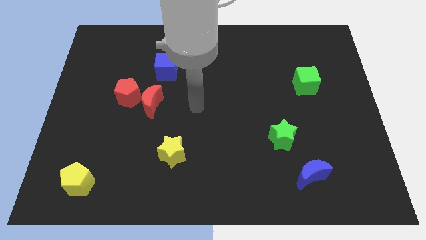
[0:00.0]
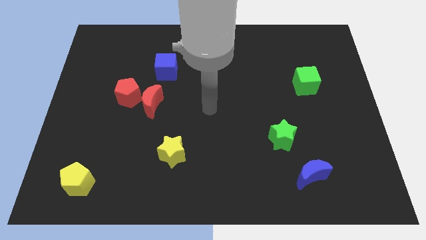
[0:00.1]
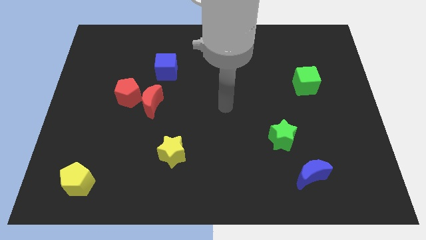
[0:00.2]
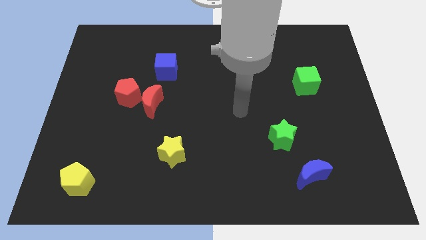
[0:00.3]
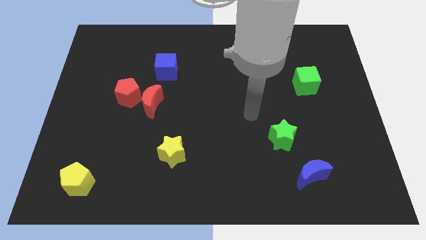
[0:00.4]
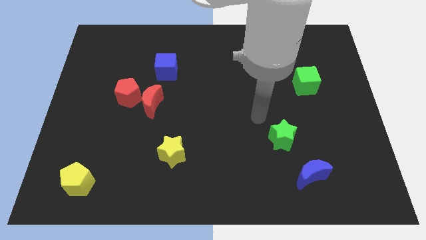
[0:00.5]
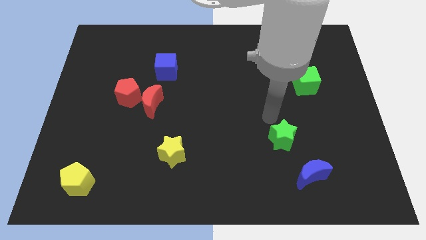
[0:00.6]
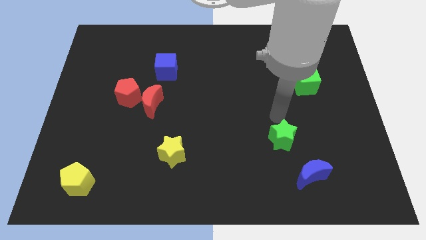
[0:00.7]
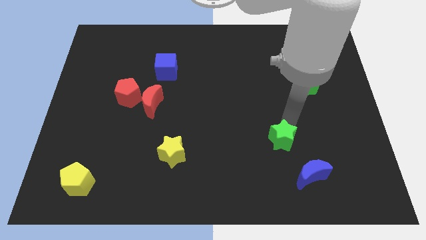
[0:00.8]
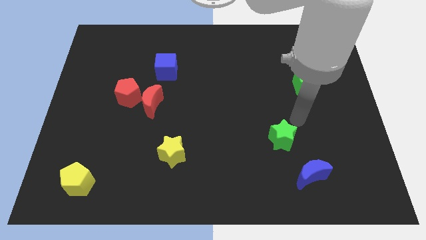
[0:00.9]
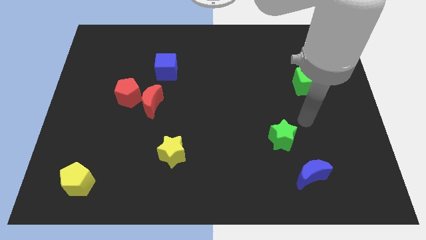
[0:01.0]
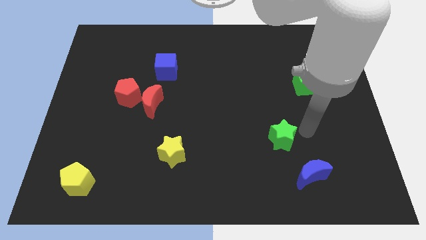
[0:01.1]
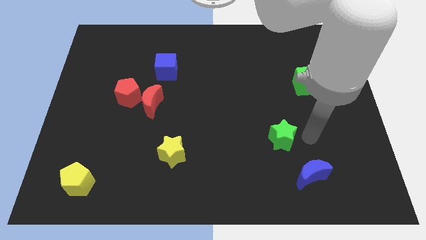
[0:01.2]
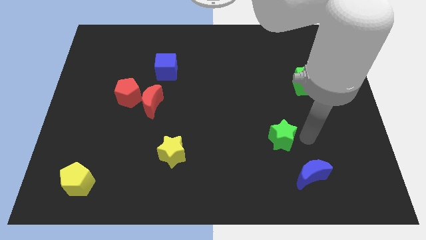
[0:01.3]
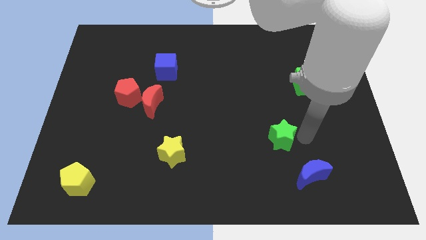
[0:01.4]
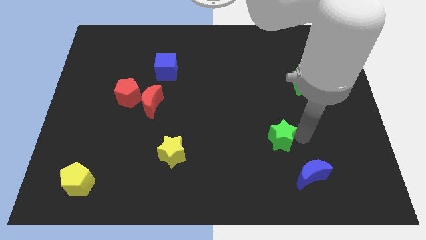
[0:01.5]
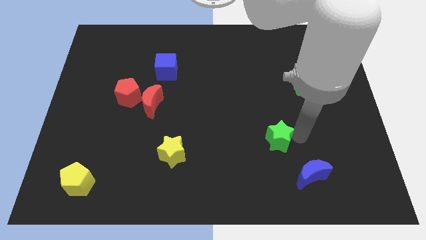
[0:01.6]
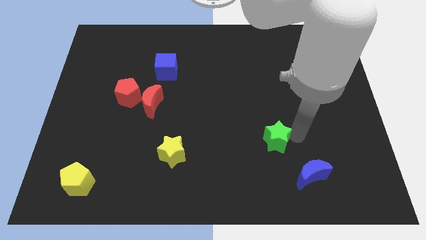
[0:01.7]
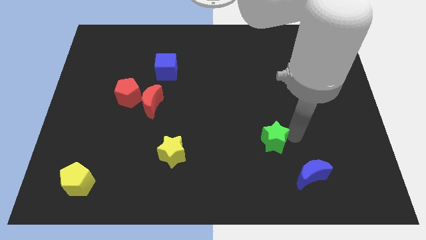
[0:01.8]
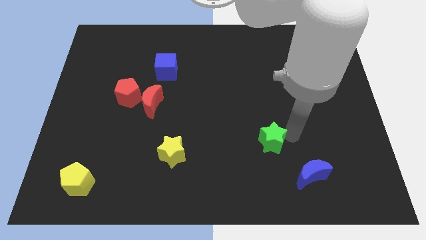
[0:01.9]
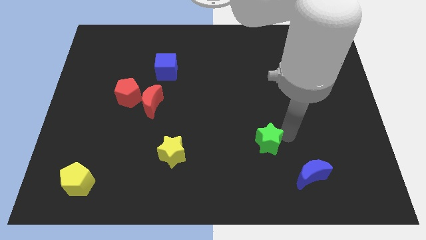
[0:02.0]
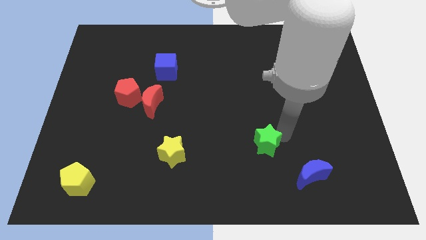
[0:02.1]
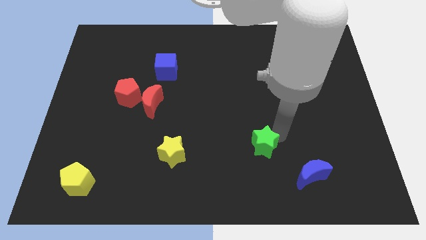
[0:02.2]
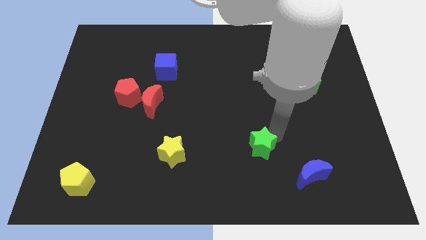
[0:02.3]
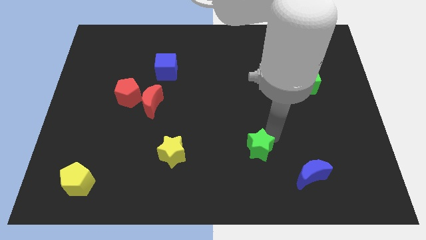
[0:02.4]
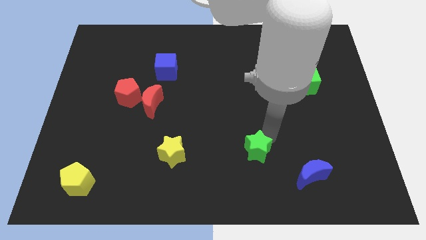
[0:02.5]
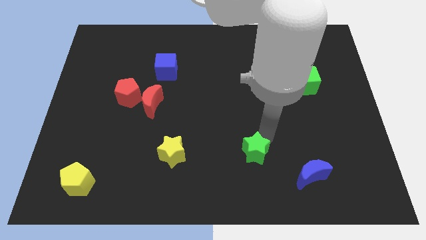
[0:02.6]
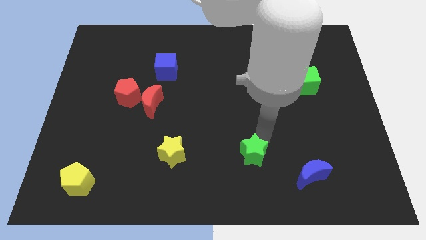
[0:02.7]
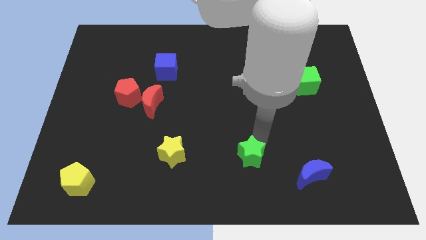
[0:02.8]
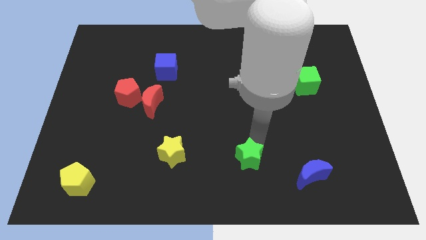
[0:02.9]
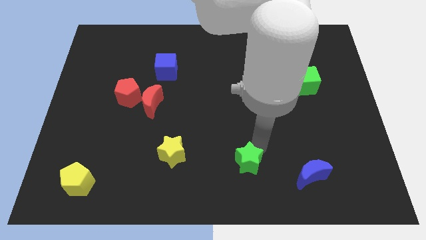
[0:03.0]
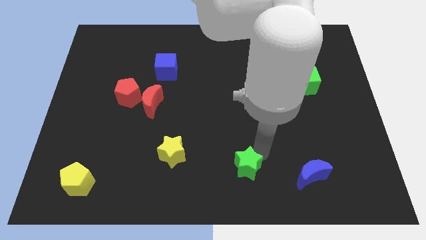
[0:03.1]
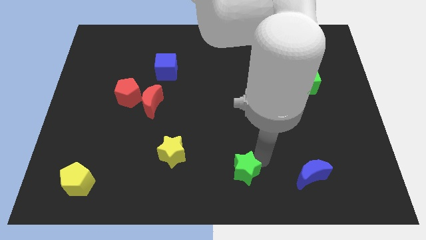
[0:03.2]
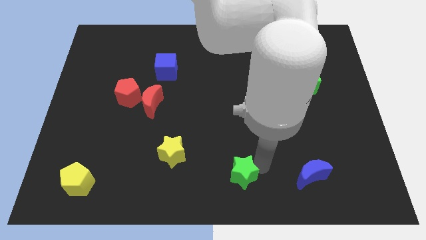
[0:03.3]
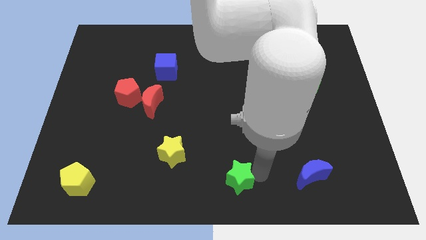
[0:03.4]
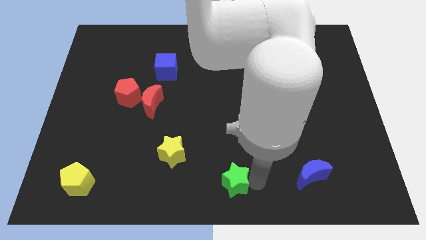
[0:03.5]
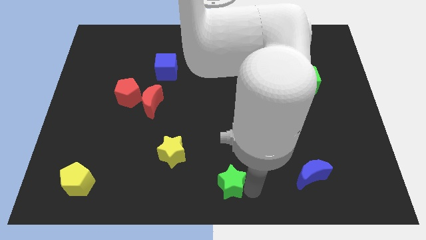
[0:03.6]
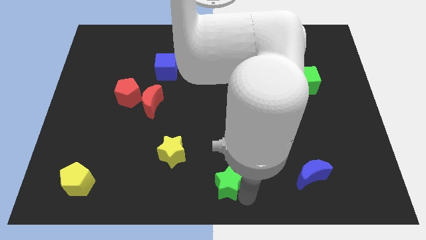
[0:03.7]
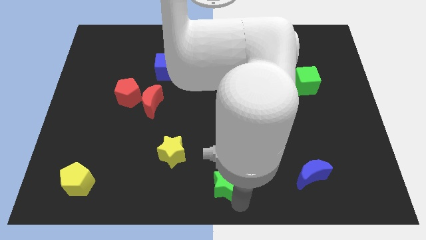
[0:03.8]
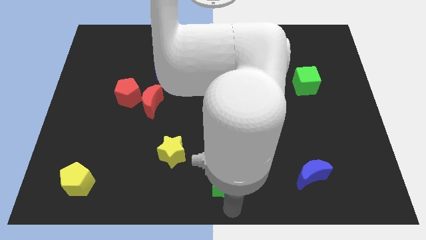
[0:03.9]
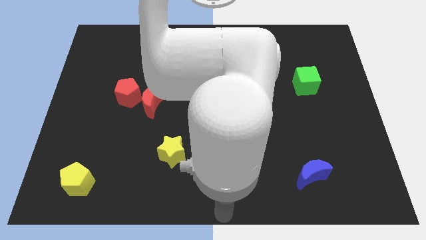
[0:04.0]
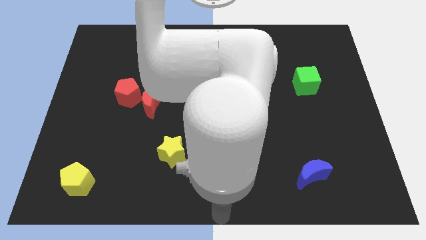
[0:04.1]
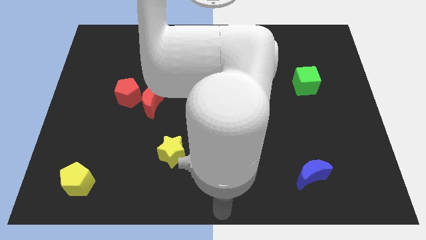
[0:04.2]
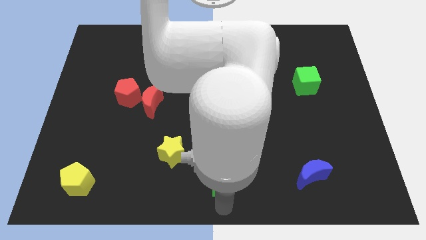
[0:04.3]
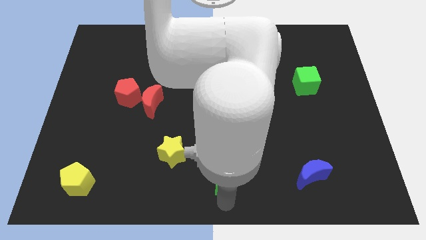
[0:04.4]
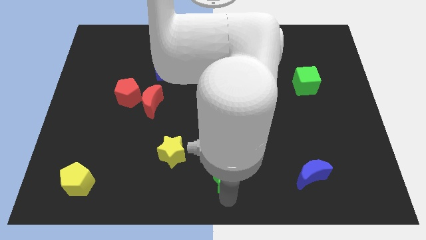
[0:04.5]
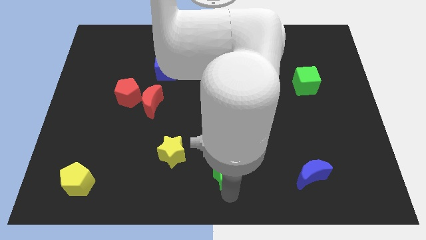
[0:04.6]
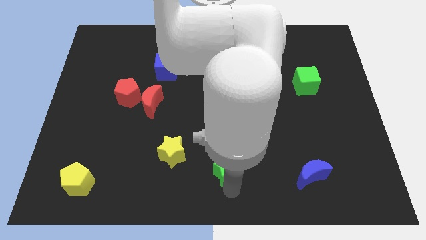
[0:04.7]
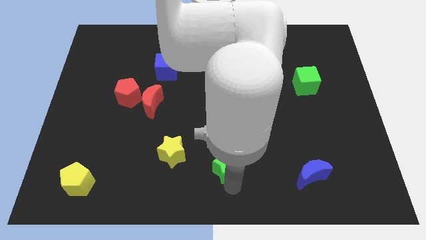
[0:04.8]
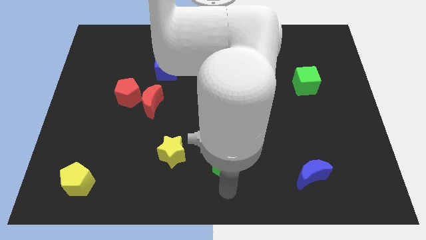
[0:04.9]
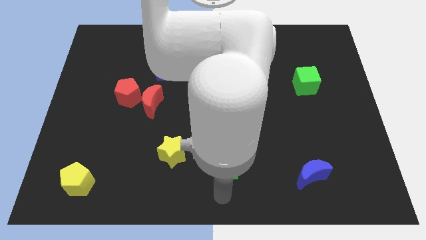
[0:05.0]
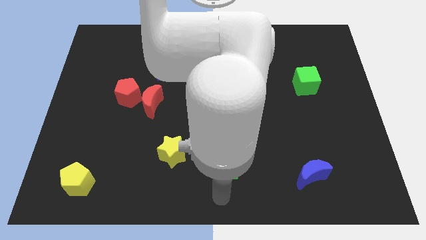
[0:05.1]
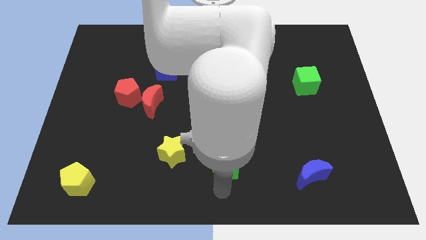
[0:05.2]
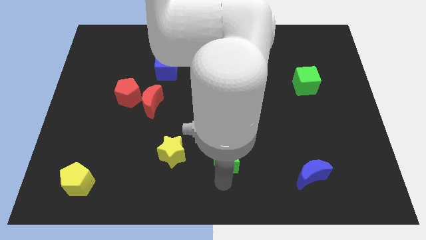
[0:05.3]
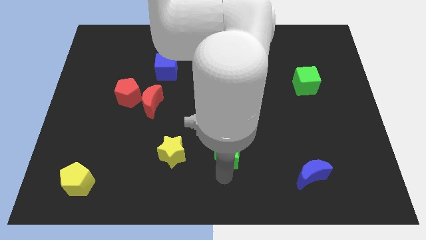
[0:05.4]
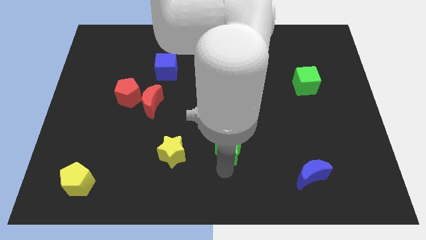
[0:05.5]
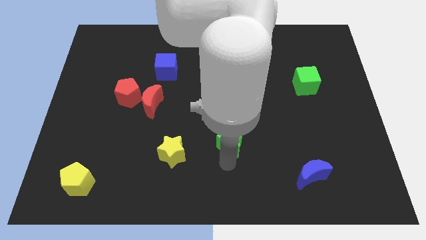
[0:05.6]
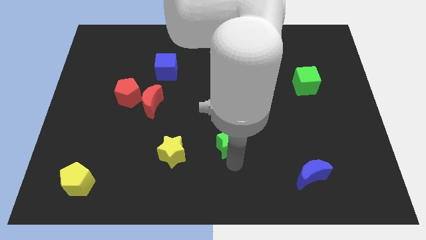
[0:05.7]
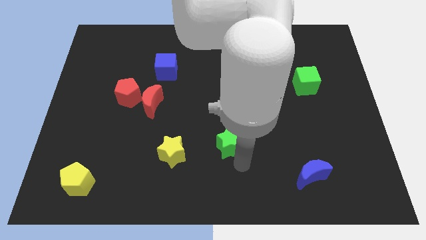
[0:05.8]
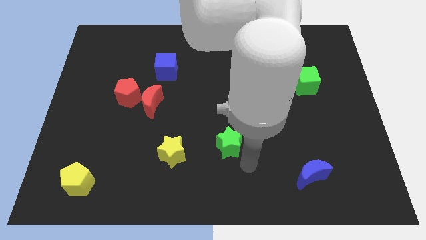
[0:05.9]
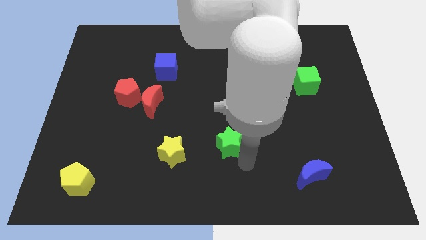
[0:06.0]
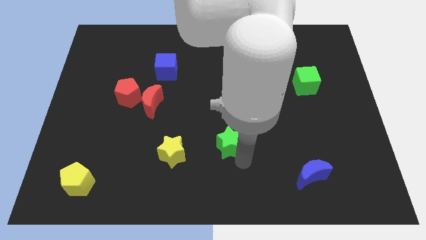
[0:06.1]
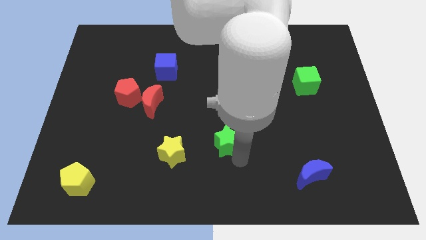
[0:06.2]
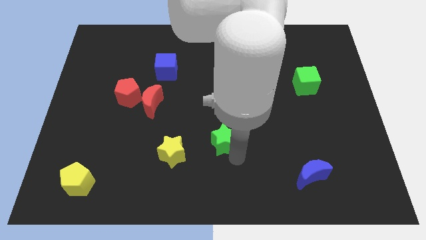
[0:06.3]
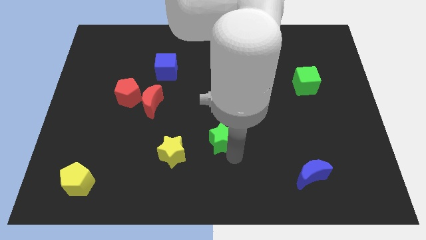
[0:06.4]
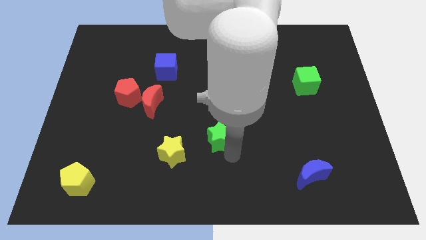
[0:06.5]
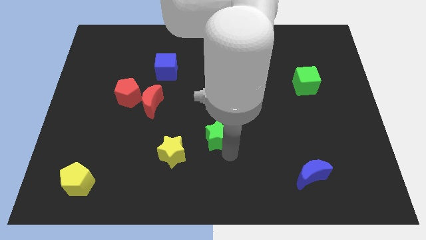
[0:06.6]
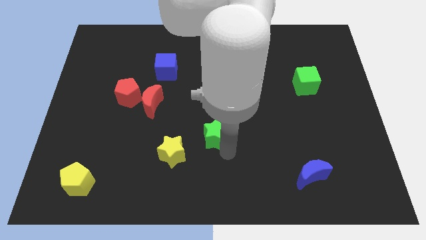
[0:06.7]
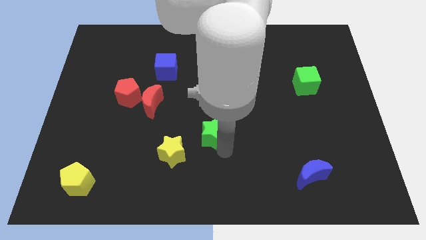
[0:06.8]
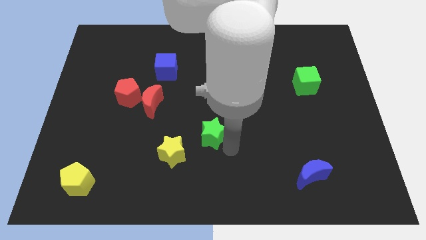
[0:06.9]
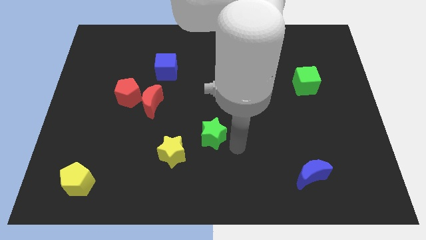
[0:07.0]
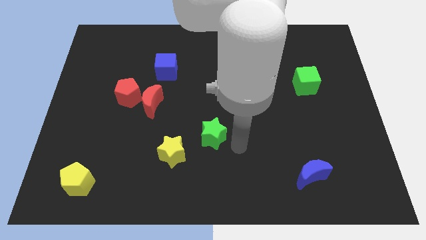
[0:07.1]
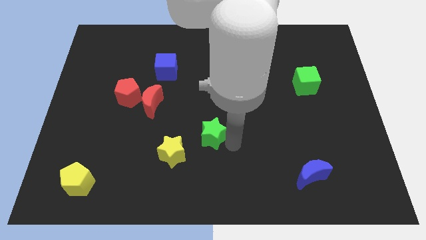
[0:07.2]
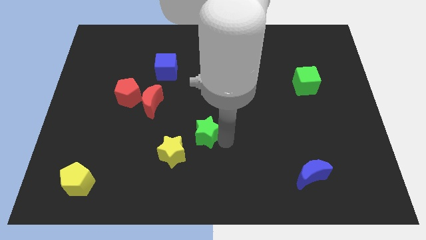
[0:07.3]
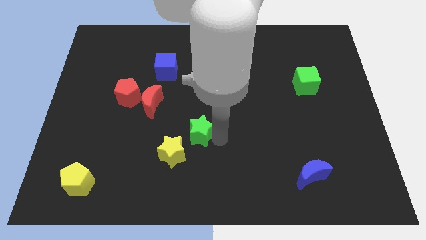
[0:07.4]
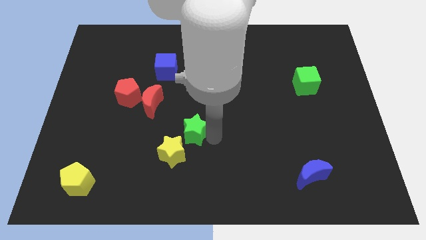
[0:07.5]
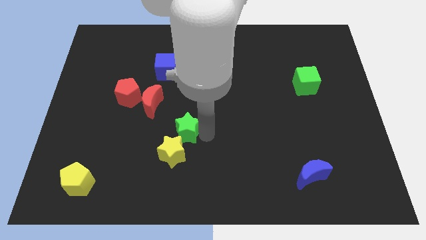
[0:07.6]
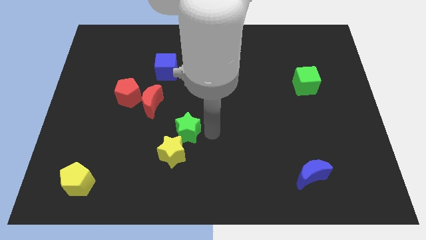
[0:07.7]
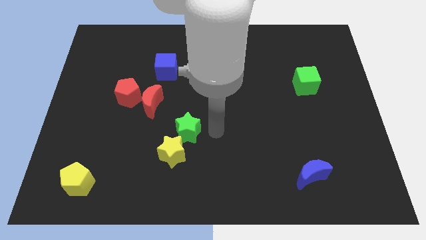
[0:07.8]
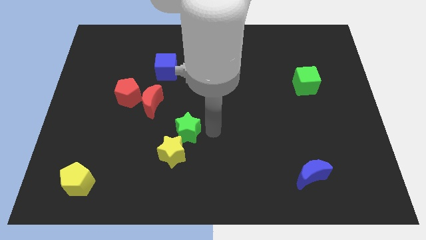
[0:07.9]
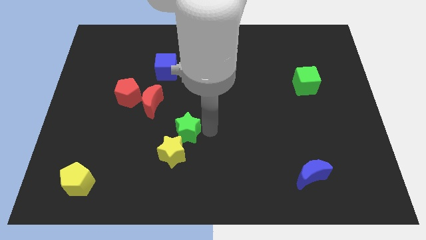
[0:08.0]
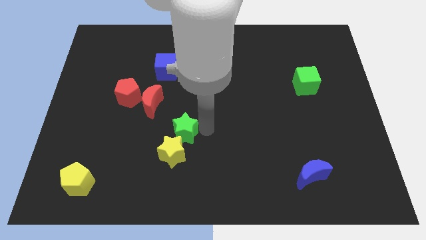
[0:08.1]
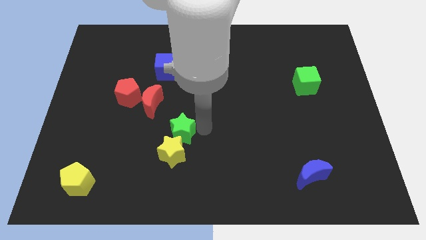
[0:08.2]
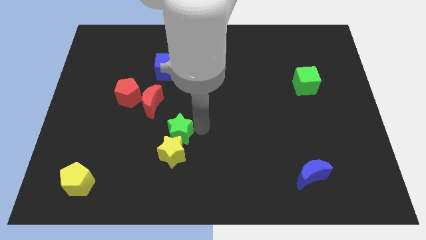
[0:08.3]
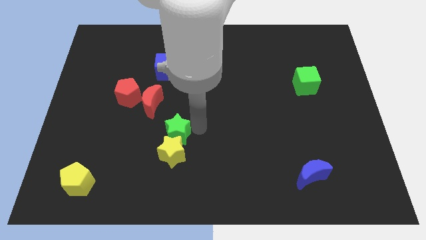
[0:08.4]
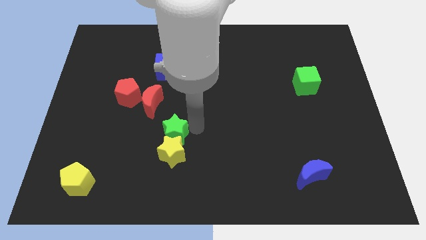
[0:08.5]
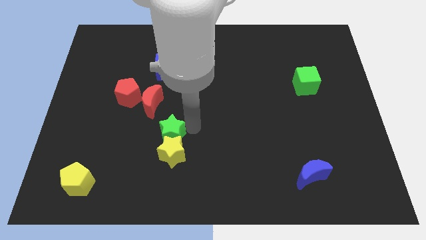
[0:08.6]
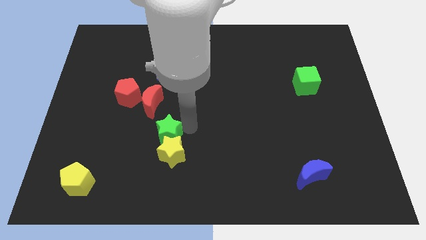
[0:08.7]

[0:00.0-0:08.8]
put the green star below the red moon
